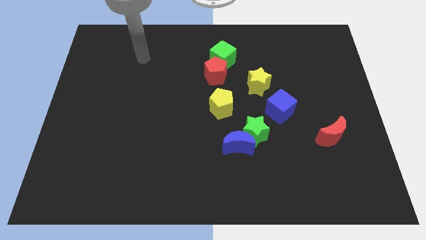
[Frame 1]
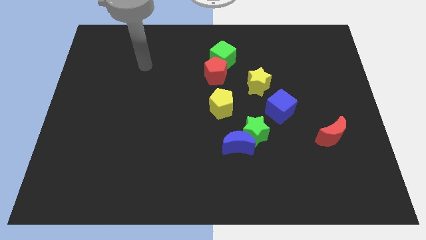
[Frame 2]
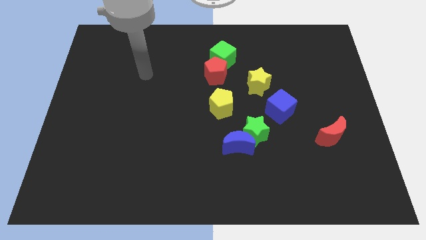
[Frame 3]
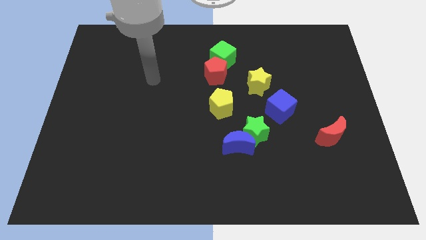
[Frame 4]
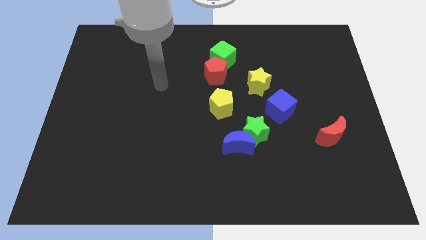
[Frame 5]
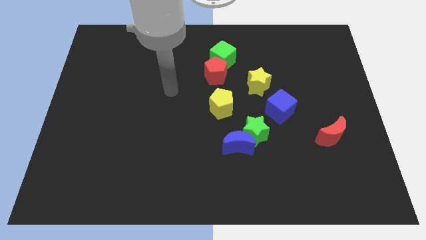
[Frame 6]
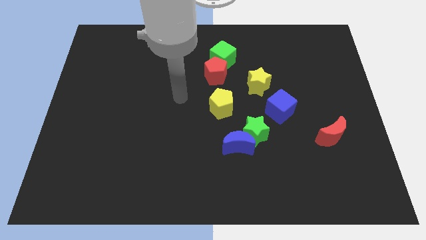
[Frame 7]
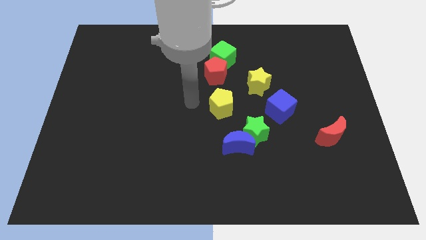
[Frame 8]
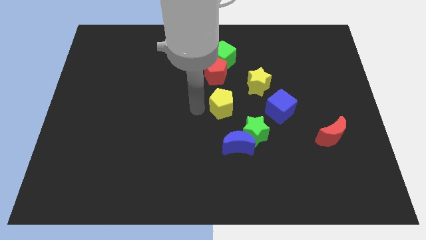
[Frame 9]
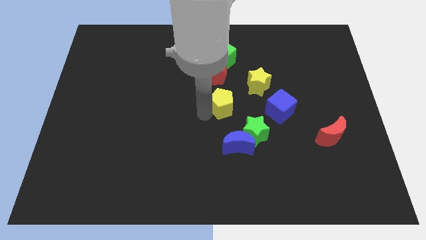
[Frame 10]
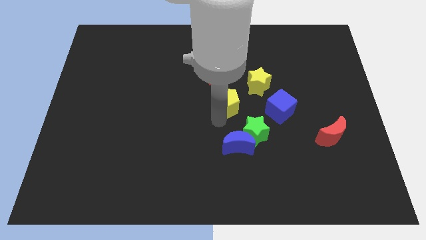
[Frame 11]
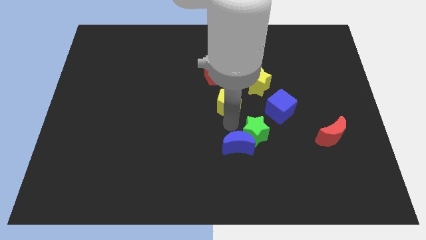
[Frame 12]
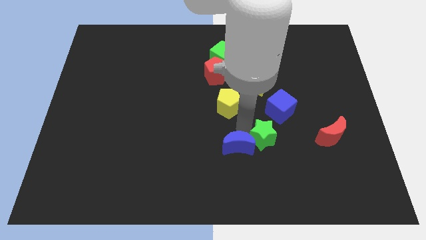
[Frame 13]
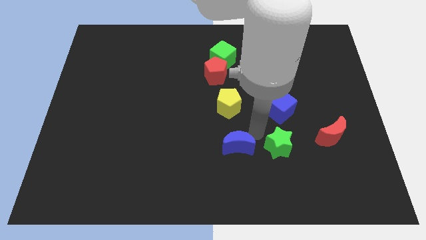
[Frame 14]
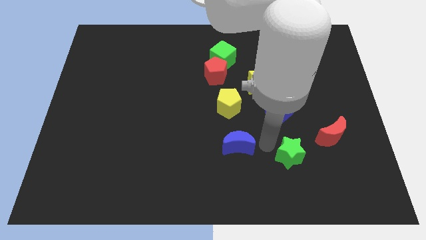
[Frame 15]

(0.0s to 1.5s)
move the blue moon away from the green star

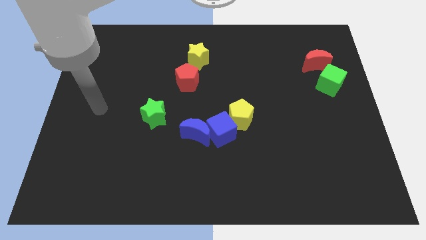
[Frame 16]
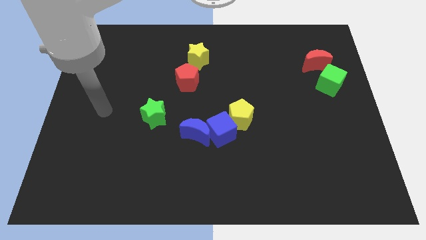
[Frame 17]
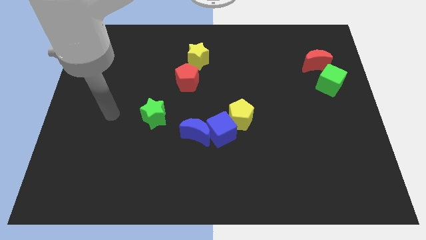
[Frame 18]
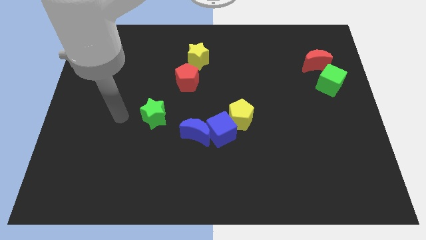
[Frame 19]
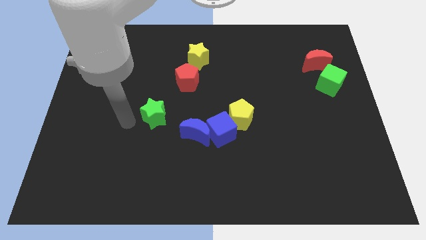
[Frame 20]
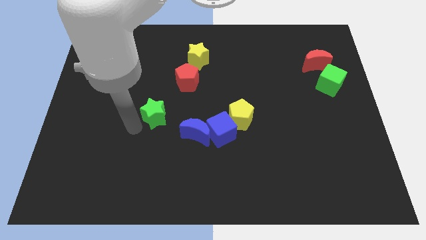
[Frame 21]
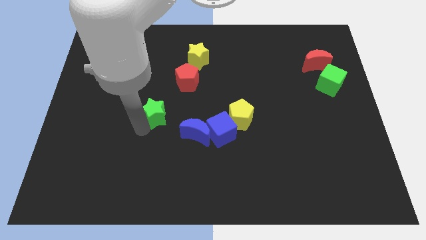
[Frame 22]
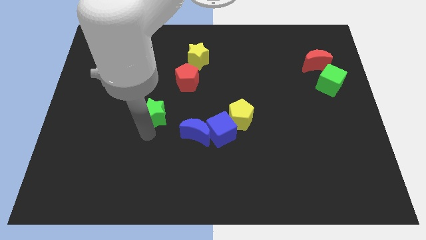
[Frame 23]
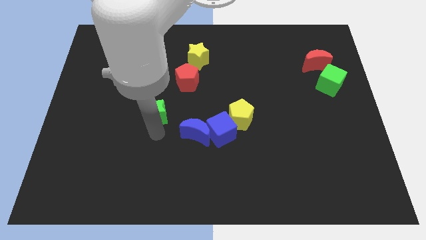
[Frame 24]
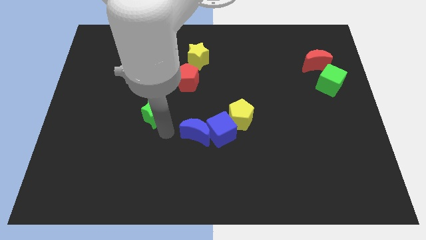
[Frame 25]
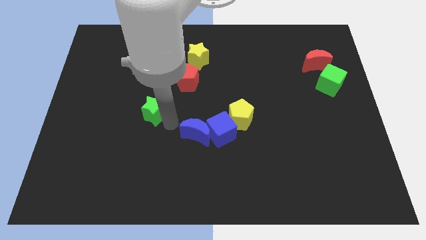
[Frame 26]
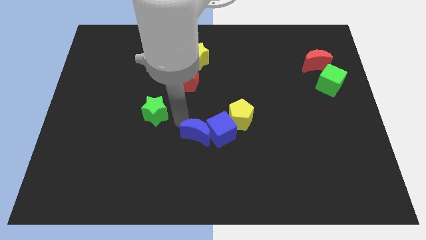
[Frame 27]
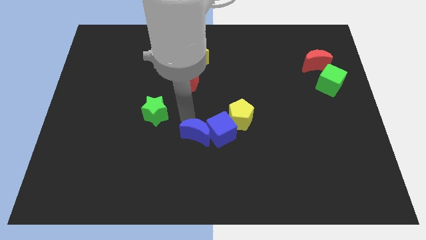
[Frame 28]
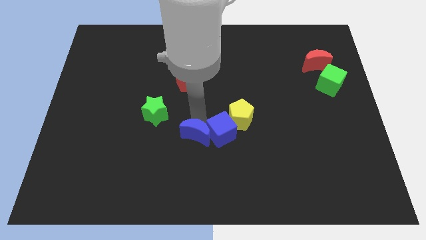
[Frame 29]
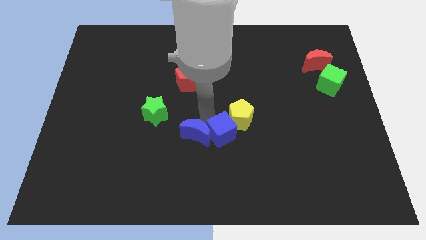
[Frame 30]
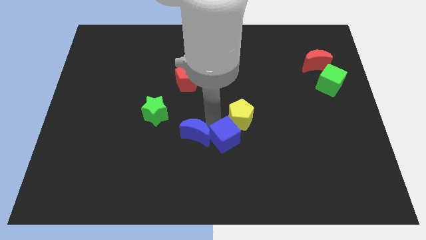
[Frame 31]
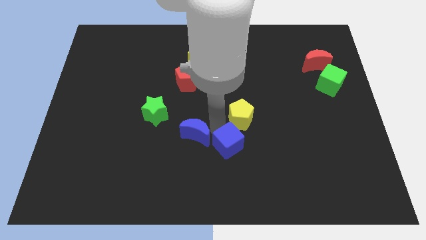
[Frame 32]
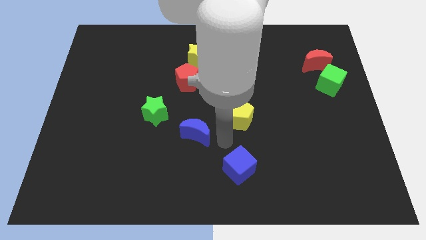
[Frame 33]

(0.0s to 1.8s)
move the blue moon away from the blue cube

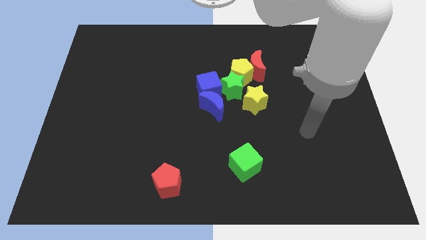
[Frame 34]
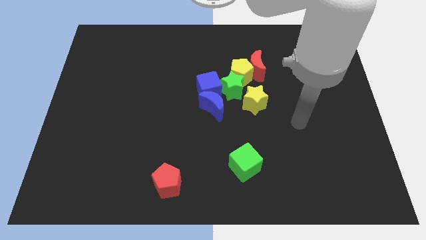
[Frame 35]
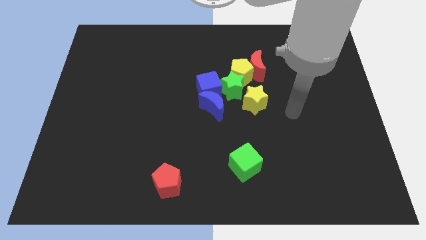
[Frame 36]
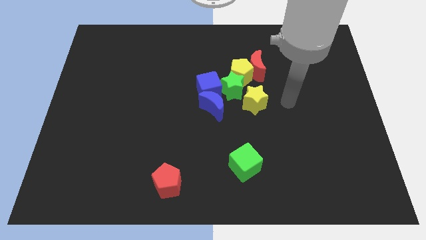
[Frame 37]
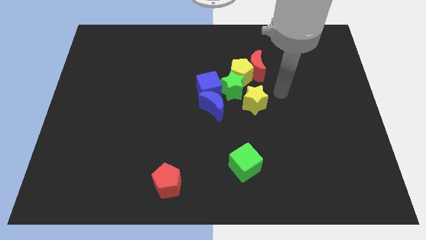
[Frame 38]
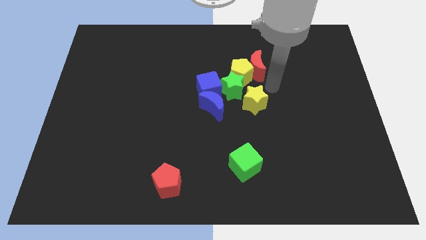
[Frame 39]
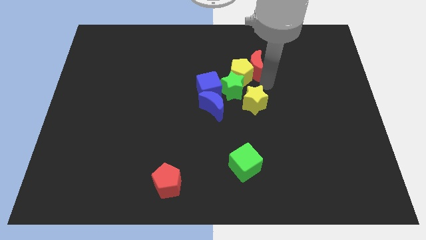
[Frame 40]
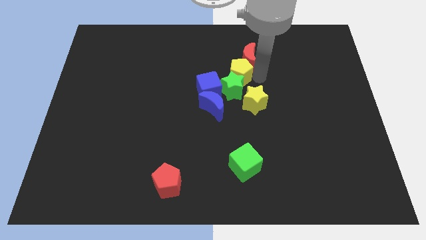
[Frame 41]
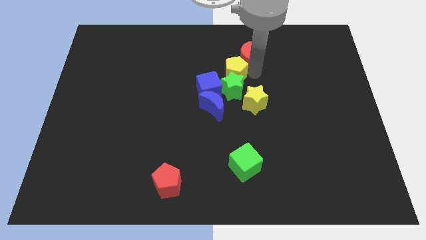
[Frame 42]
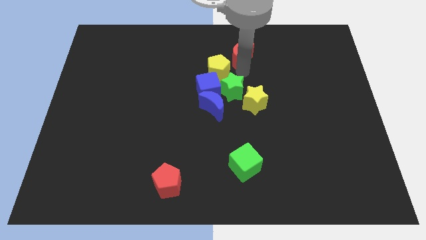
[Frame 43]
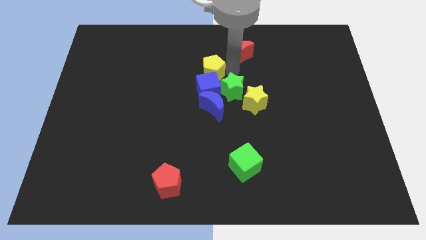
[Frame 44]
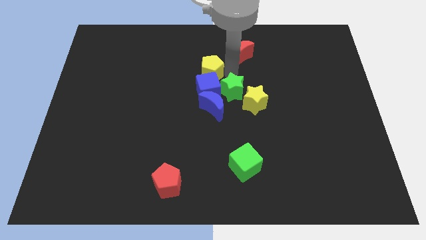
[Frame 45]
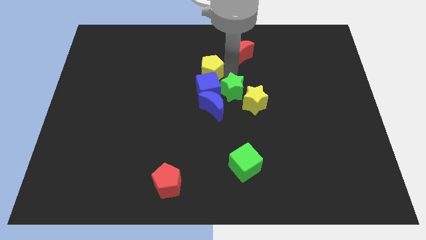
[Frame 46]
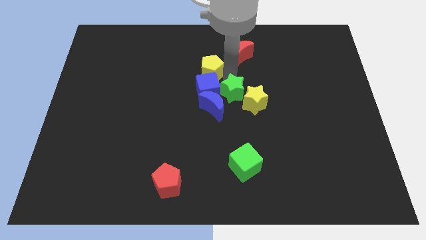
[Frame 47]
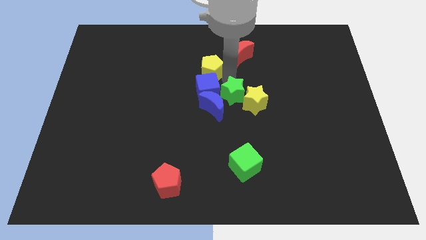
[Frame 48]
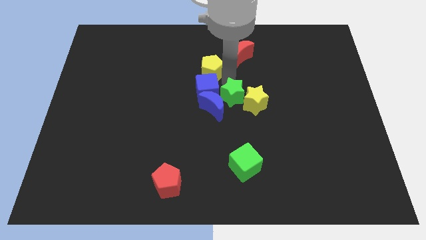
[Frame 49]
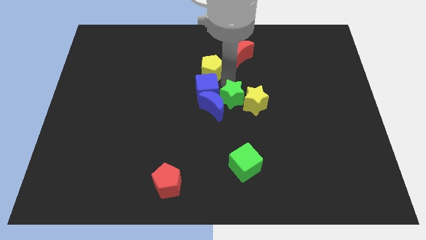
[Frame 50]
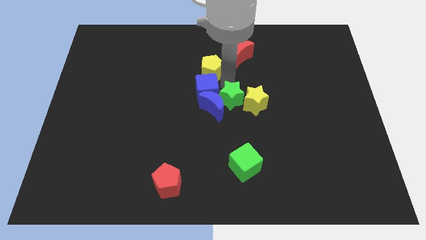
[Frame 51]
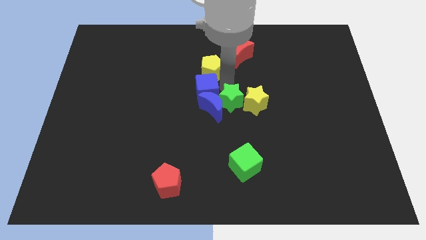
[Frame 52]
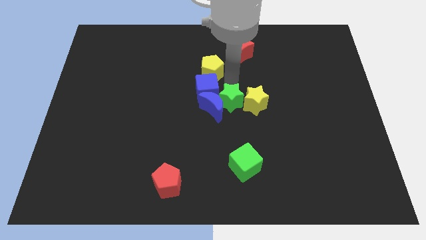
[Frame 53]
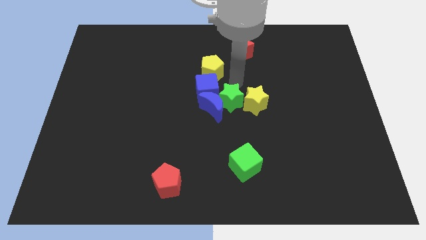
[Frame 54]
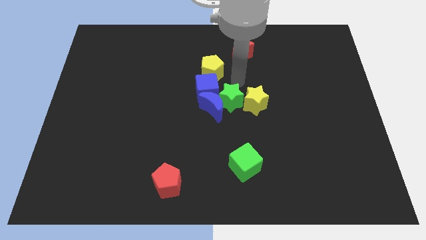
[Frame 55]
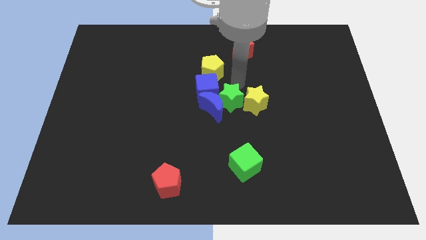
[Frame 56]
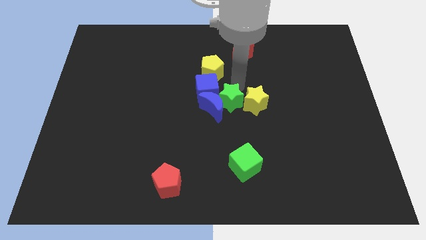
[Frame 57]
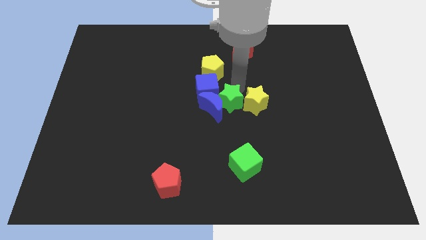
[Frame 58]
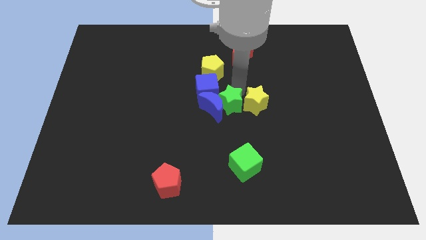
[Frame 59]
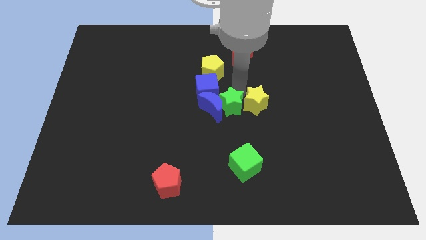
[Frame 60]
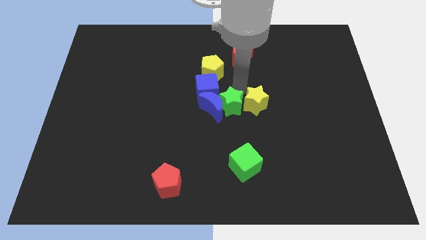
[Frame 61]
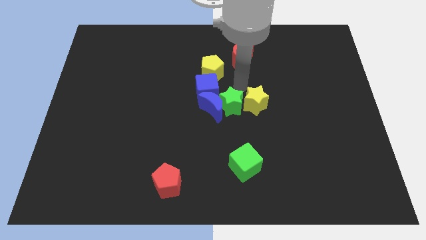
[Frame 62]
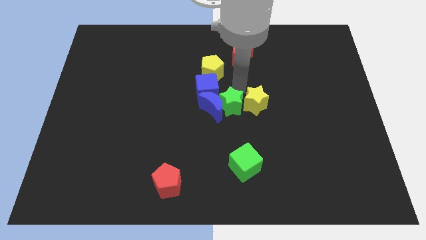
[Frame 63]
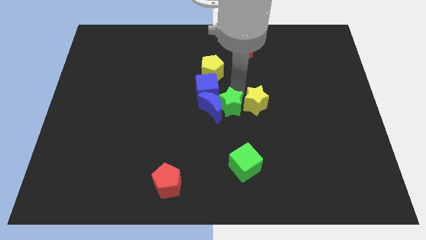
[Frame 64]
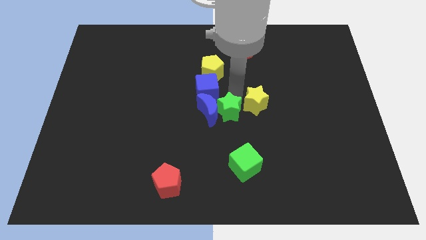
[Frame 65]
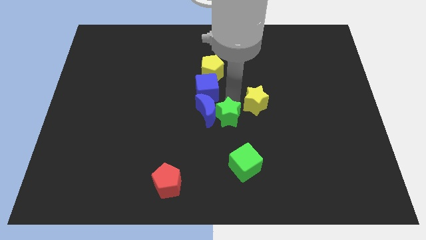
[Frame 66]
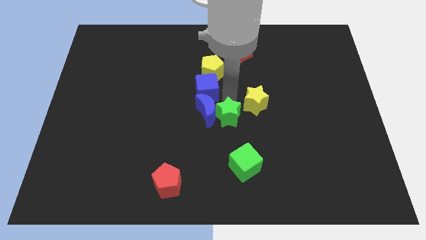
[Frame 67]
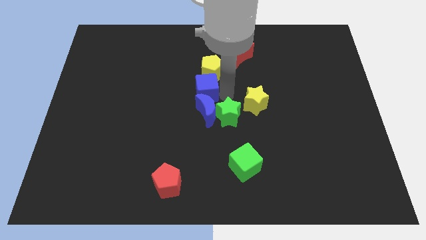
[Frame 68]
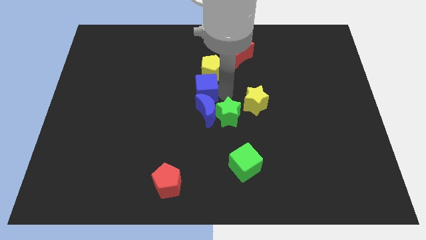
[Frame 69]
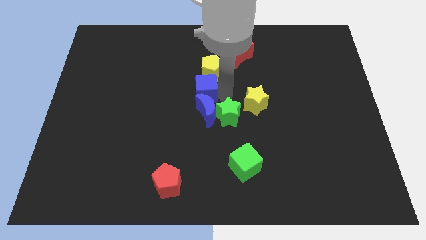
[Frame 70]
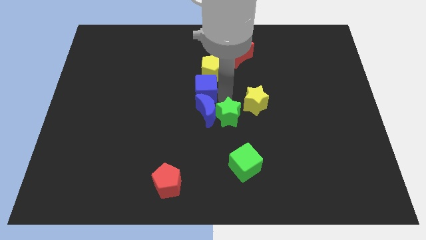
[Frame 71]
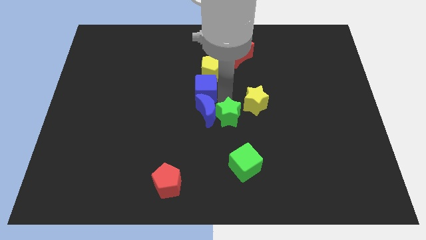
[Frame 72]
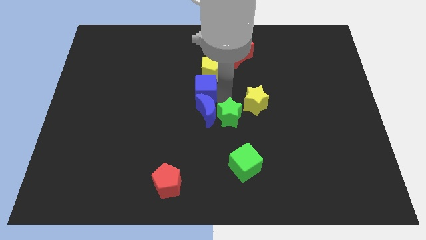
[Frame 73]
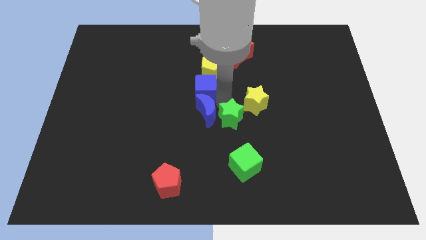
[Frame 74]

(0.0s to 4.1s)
separate the green star from the group of blocks

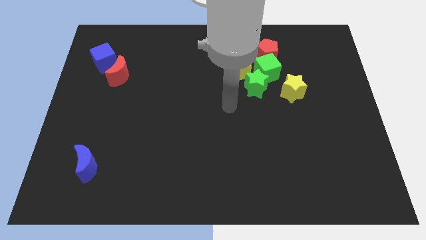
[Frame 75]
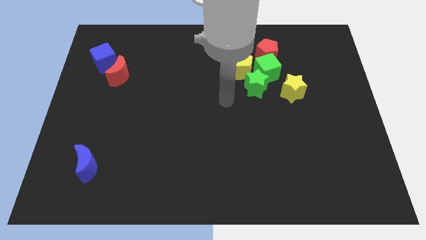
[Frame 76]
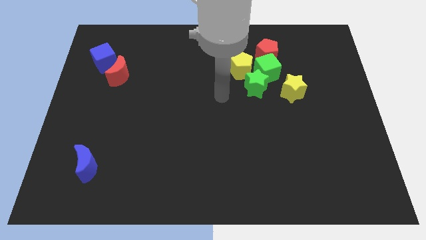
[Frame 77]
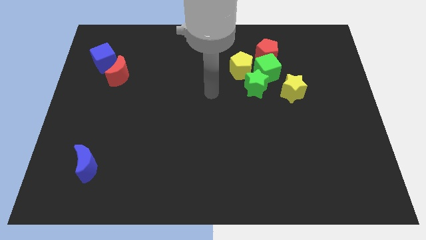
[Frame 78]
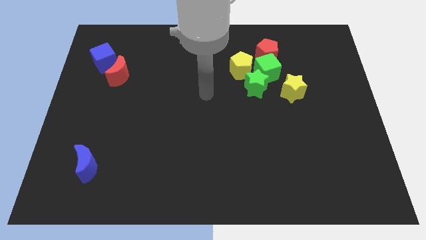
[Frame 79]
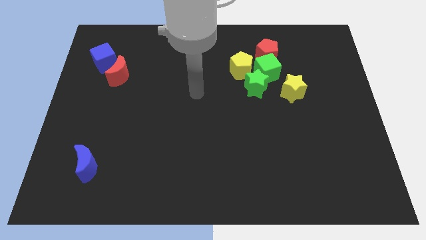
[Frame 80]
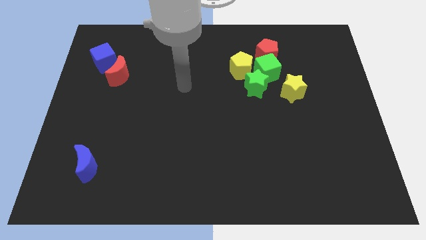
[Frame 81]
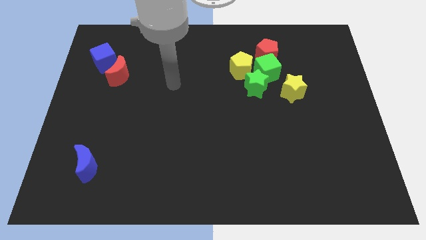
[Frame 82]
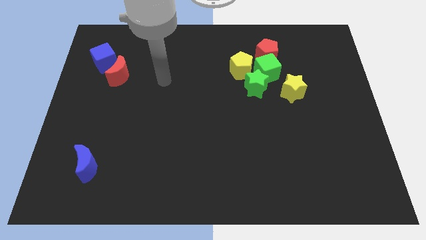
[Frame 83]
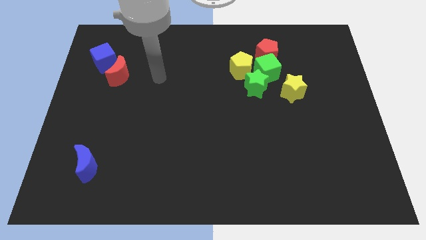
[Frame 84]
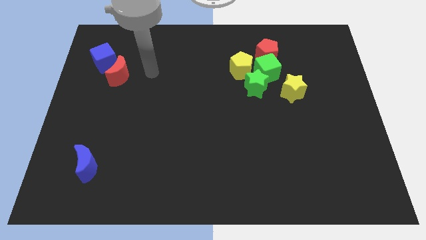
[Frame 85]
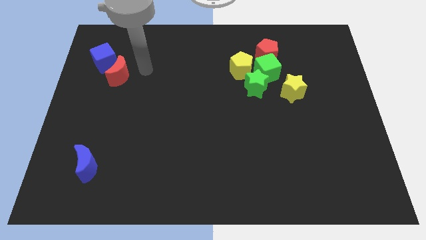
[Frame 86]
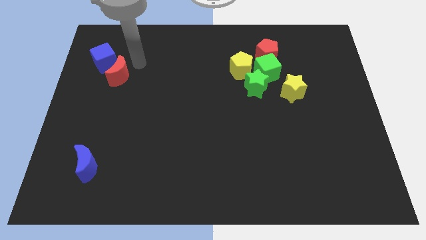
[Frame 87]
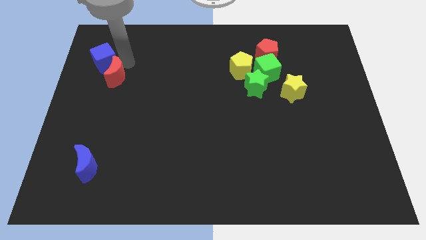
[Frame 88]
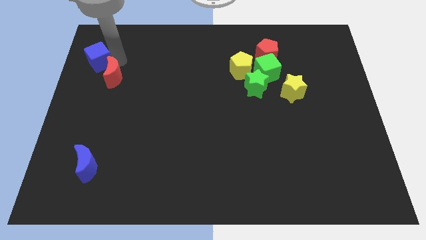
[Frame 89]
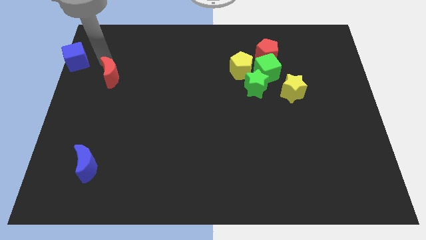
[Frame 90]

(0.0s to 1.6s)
separate the red moon from the blue cube

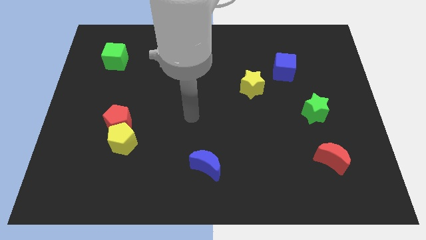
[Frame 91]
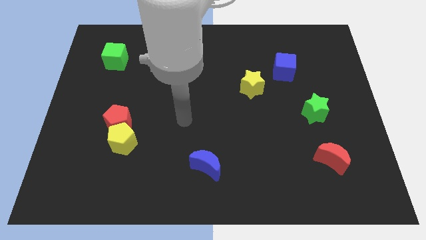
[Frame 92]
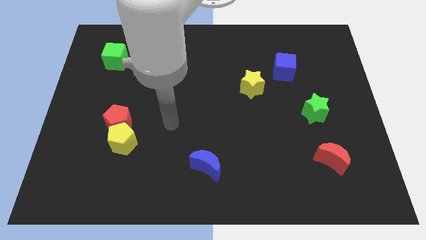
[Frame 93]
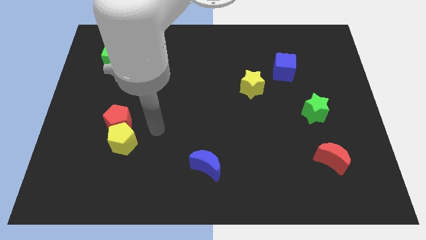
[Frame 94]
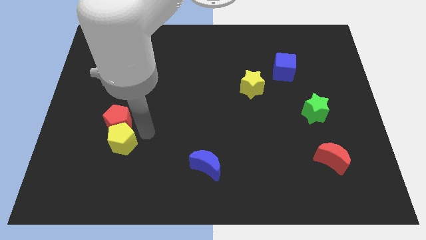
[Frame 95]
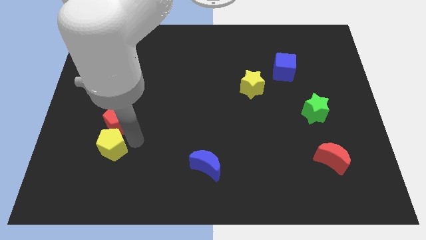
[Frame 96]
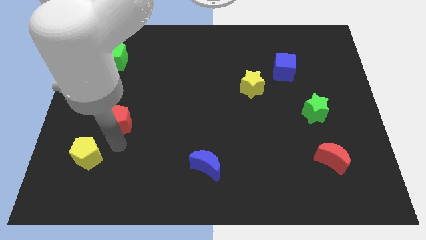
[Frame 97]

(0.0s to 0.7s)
separate the red pentagon from the yellow pentagon
